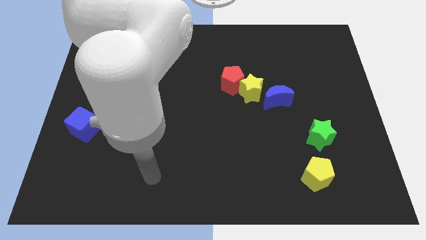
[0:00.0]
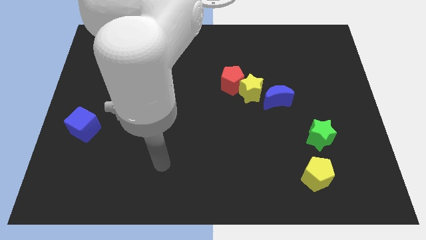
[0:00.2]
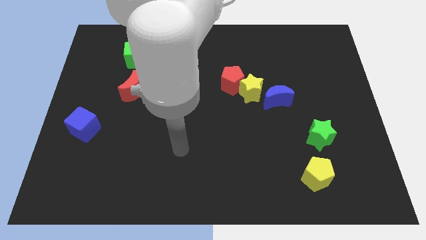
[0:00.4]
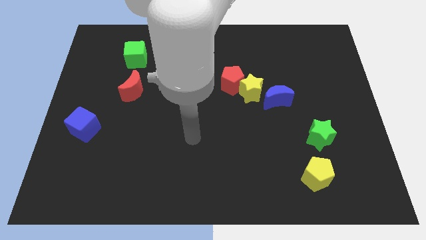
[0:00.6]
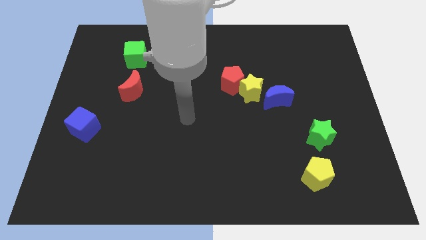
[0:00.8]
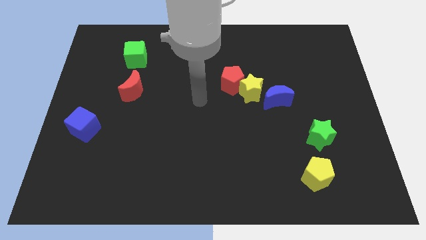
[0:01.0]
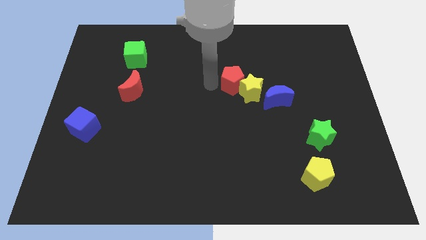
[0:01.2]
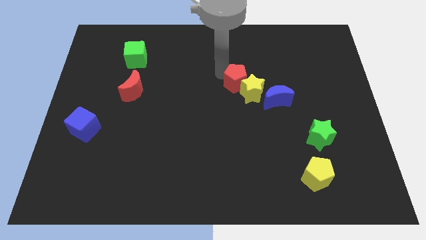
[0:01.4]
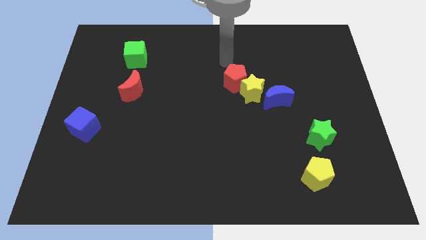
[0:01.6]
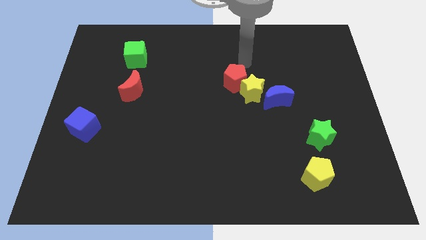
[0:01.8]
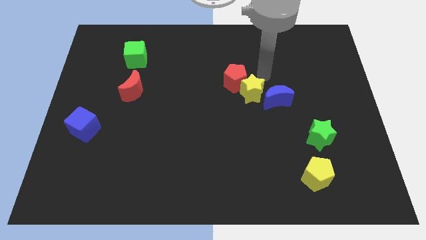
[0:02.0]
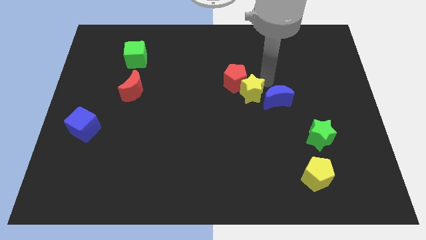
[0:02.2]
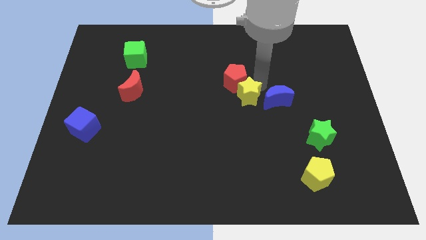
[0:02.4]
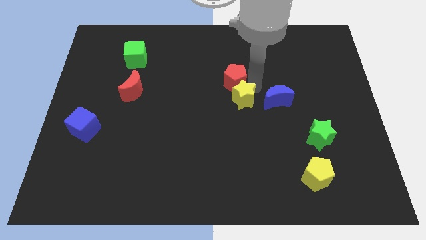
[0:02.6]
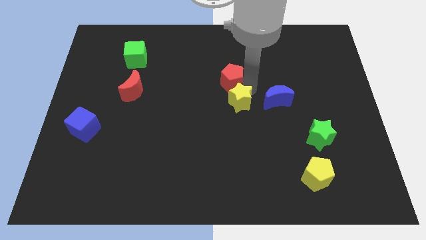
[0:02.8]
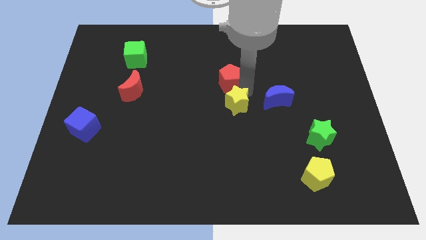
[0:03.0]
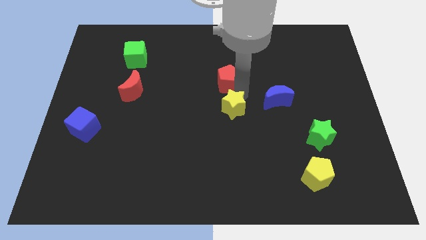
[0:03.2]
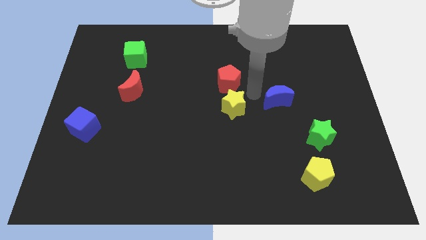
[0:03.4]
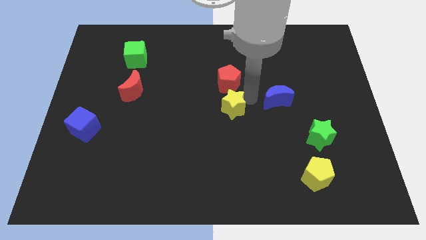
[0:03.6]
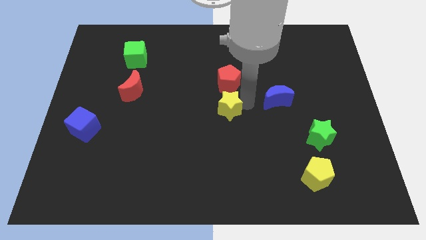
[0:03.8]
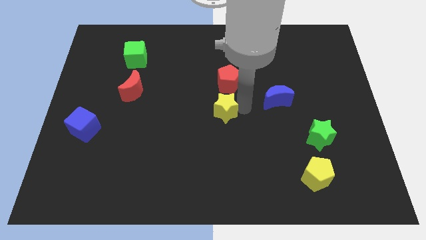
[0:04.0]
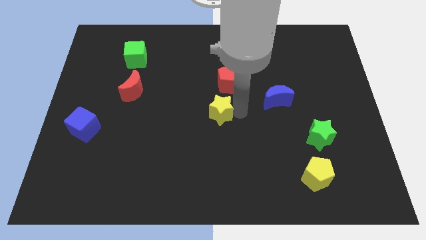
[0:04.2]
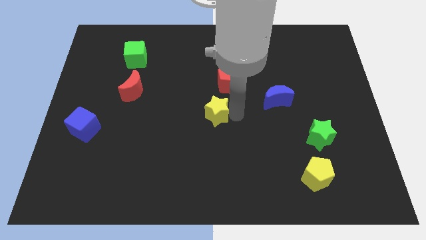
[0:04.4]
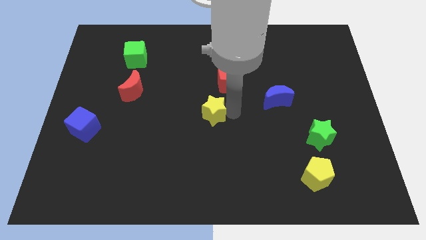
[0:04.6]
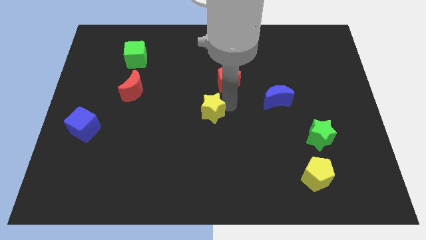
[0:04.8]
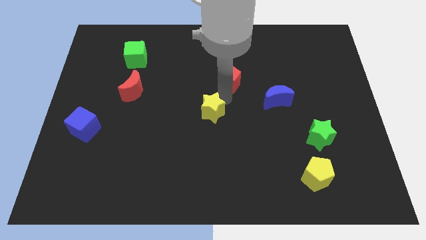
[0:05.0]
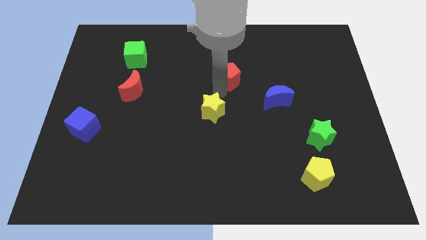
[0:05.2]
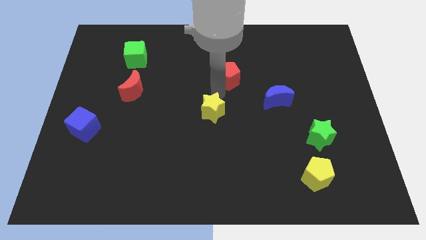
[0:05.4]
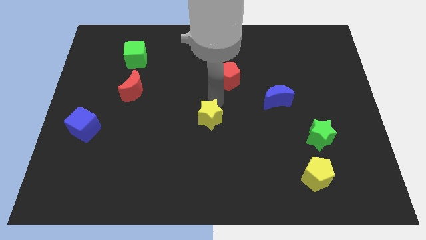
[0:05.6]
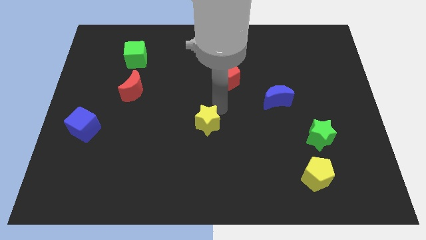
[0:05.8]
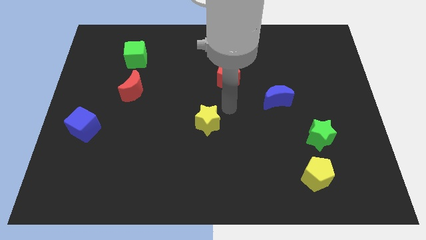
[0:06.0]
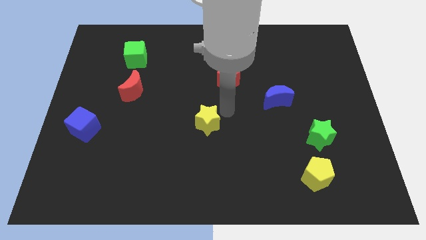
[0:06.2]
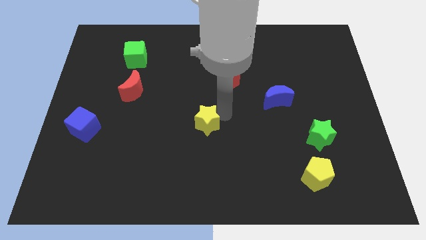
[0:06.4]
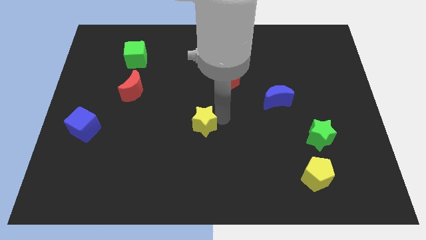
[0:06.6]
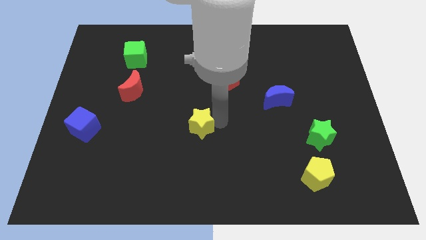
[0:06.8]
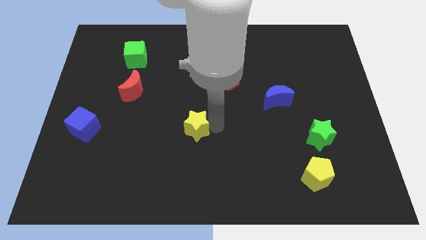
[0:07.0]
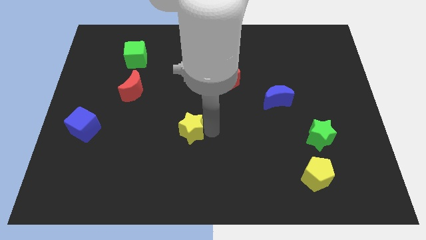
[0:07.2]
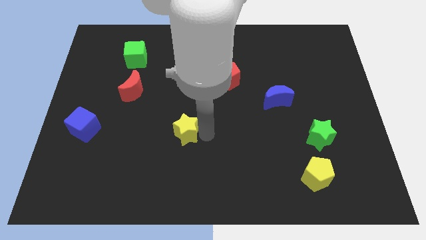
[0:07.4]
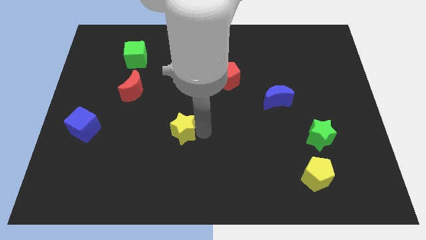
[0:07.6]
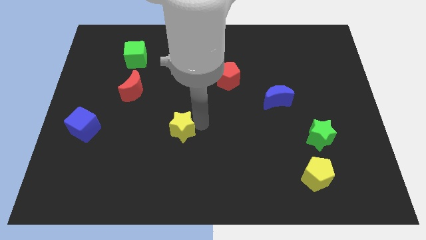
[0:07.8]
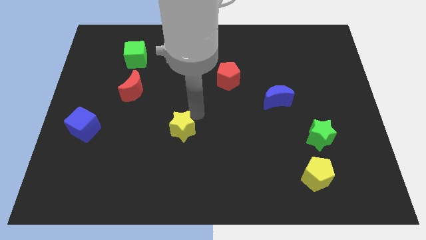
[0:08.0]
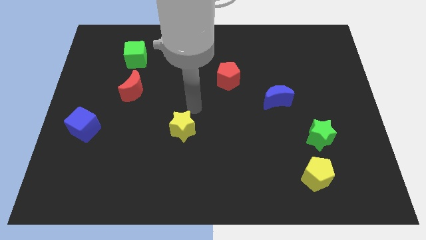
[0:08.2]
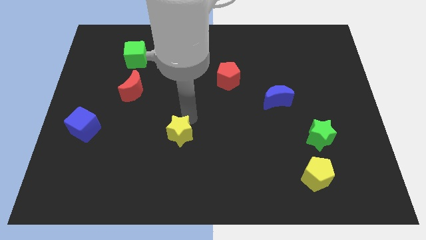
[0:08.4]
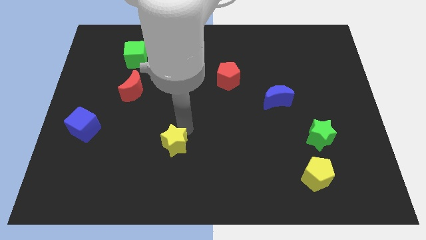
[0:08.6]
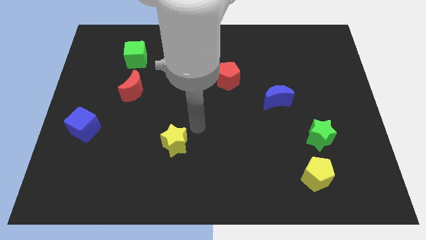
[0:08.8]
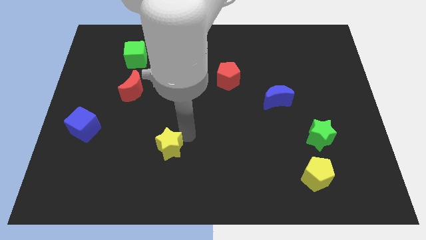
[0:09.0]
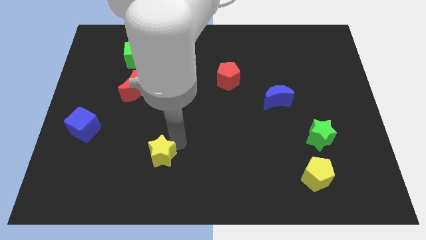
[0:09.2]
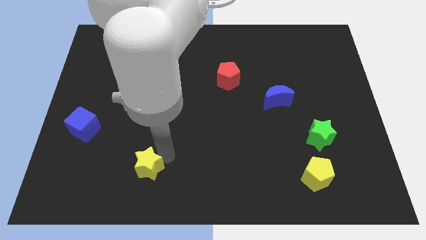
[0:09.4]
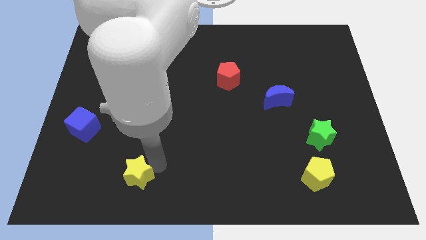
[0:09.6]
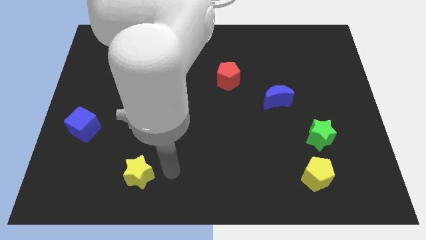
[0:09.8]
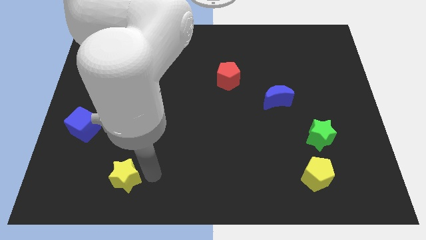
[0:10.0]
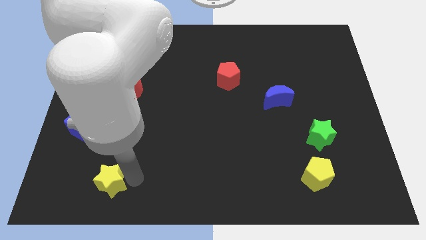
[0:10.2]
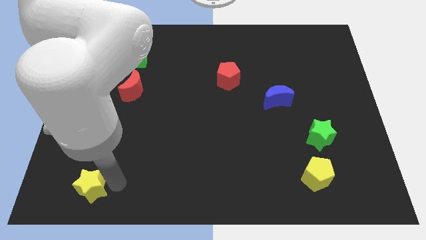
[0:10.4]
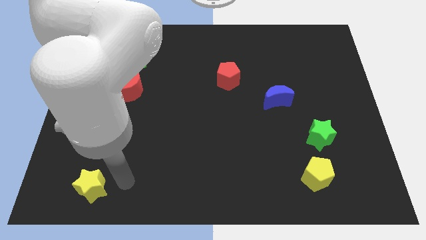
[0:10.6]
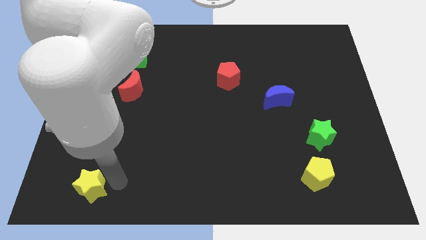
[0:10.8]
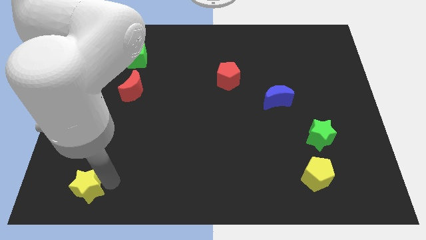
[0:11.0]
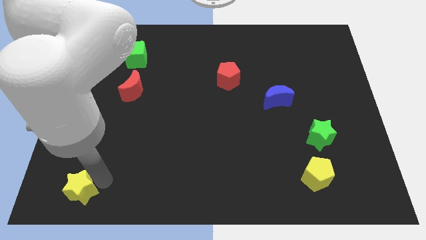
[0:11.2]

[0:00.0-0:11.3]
slide the yellow star to the lower left corner
